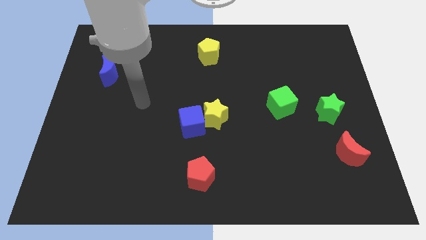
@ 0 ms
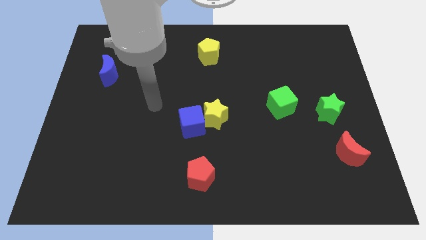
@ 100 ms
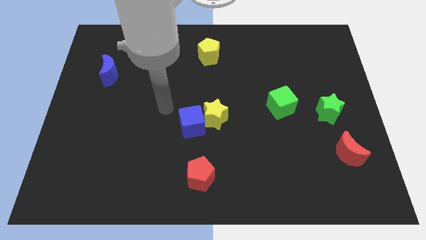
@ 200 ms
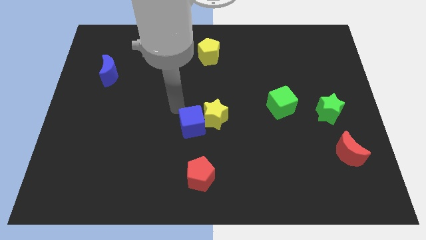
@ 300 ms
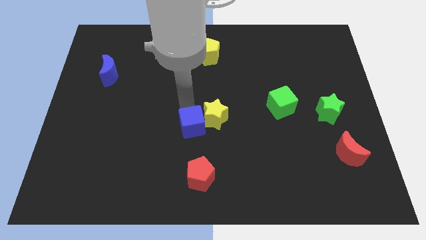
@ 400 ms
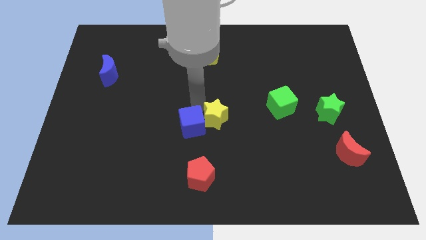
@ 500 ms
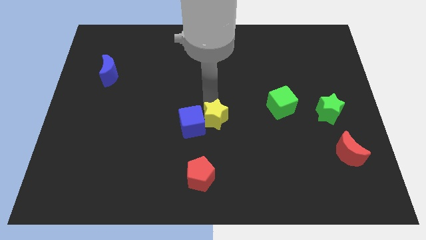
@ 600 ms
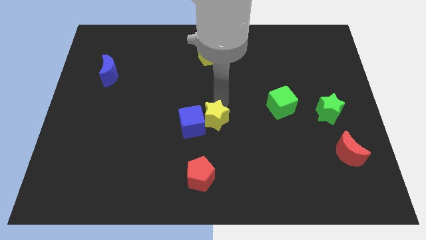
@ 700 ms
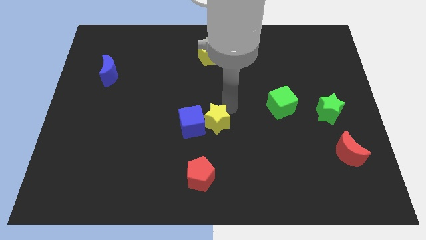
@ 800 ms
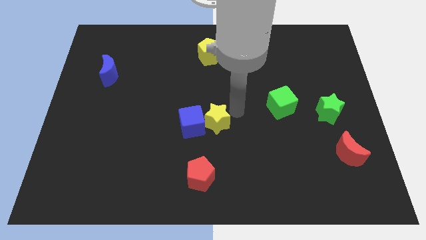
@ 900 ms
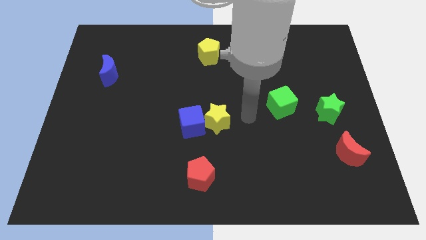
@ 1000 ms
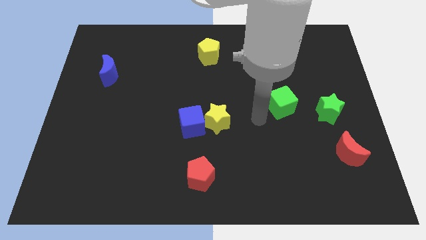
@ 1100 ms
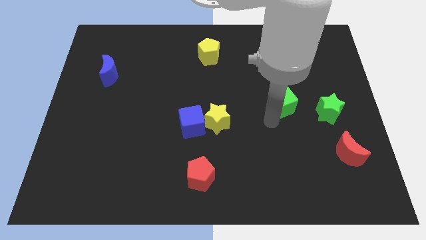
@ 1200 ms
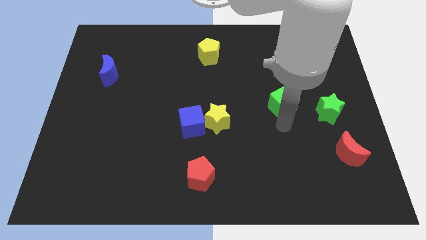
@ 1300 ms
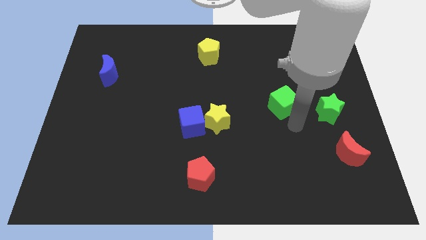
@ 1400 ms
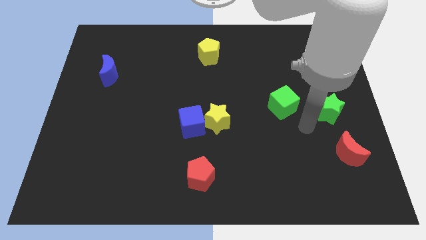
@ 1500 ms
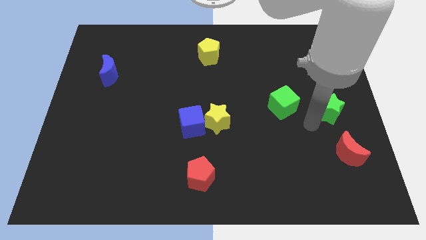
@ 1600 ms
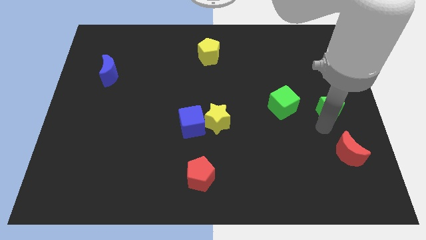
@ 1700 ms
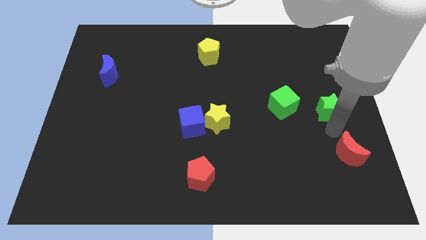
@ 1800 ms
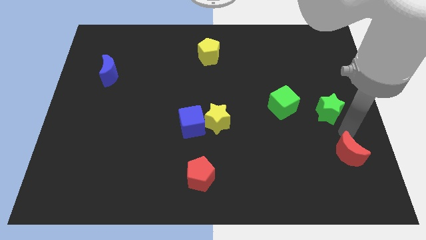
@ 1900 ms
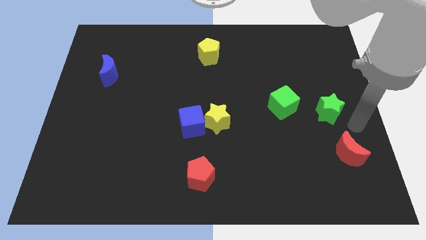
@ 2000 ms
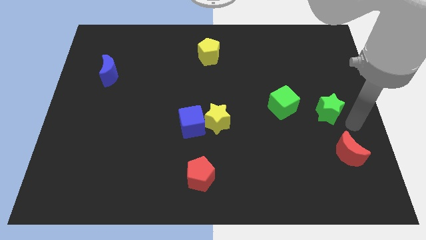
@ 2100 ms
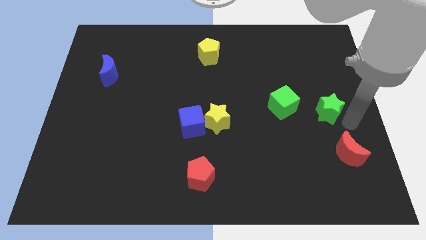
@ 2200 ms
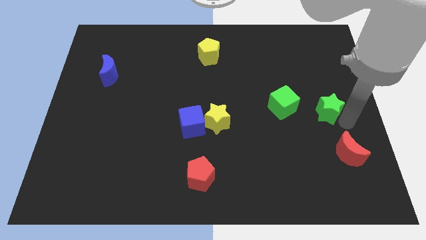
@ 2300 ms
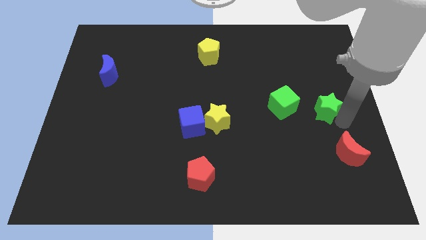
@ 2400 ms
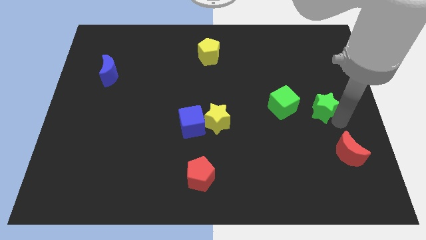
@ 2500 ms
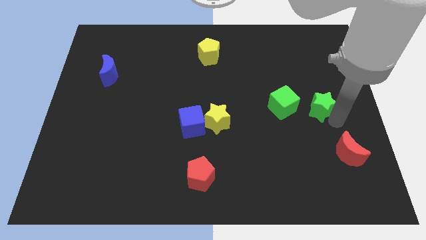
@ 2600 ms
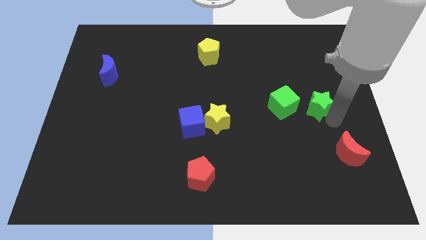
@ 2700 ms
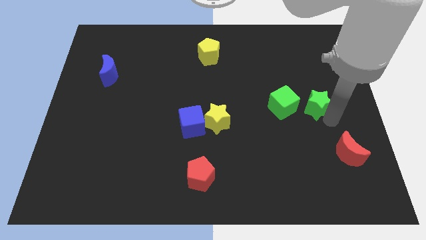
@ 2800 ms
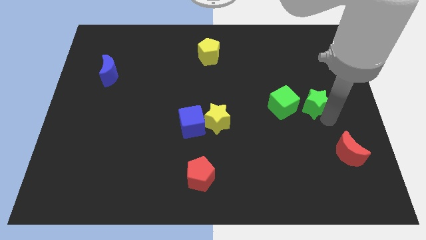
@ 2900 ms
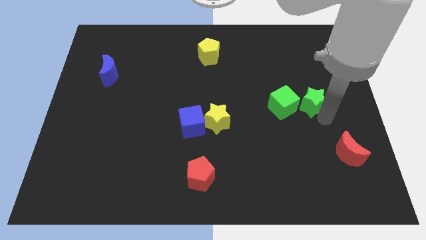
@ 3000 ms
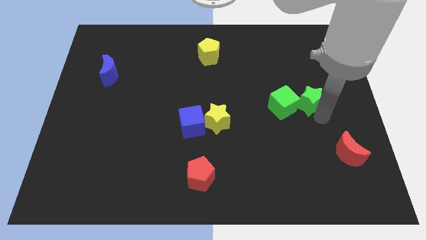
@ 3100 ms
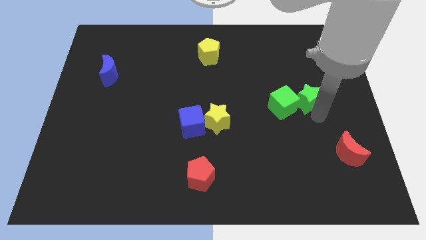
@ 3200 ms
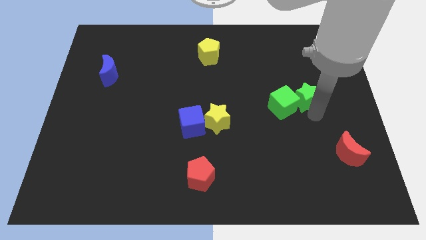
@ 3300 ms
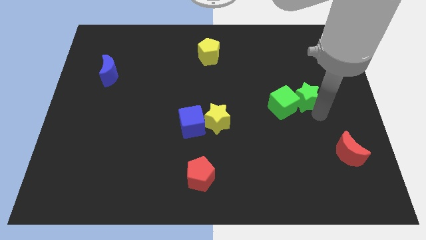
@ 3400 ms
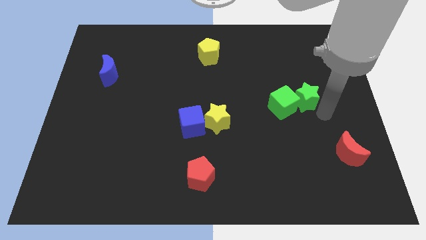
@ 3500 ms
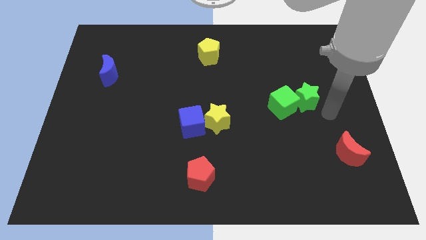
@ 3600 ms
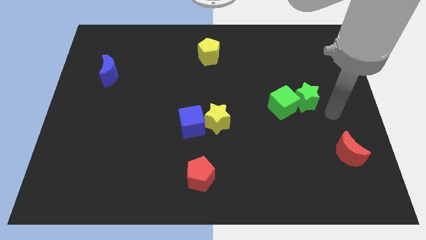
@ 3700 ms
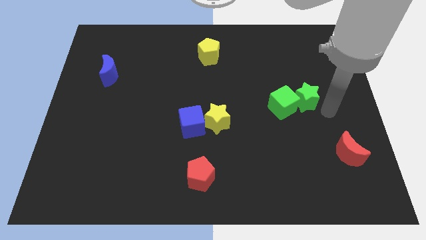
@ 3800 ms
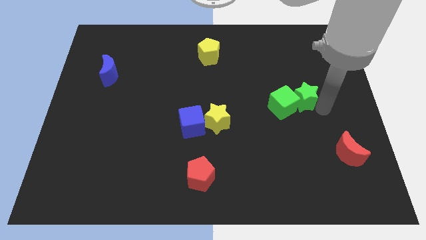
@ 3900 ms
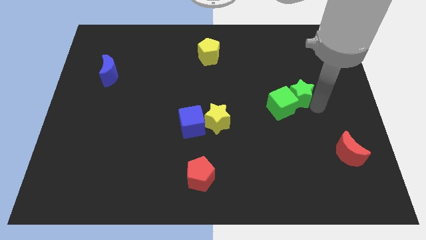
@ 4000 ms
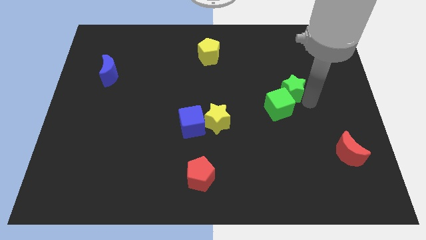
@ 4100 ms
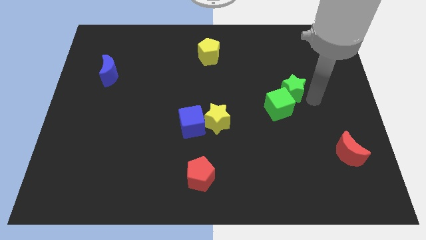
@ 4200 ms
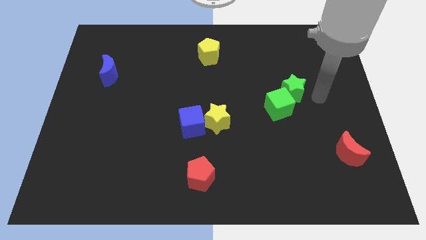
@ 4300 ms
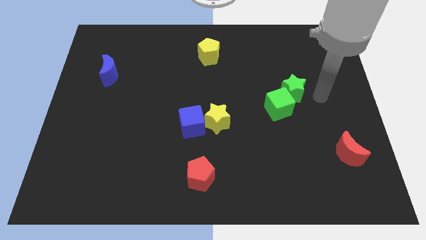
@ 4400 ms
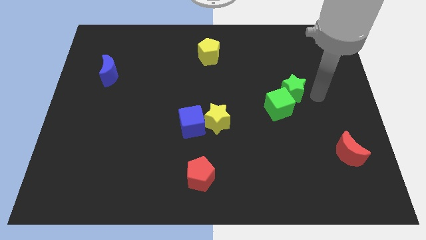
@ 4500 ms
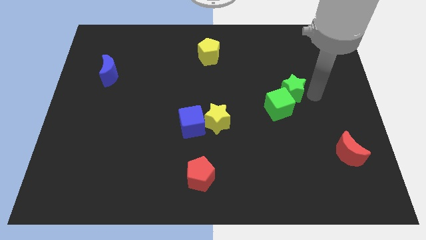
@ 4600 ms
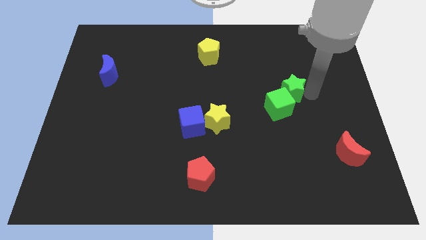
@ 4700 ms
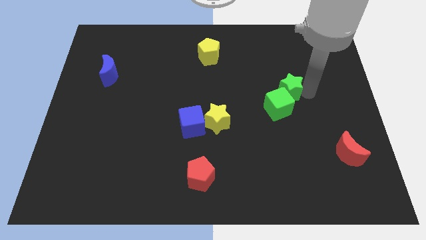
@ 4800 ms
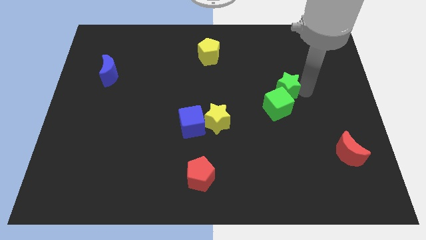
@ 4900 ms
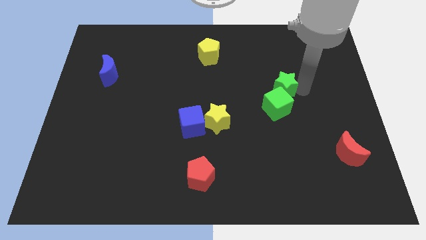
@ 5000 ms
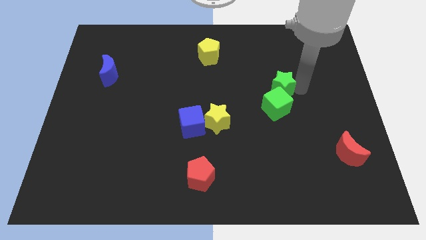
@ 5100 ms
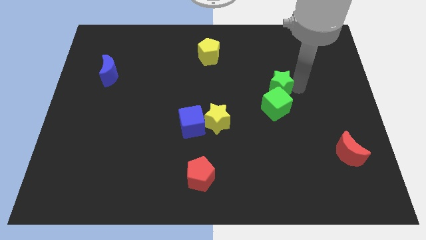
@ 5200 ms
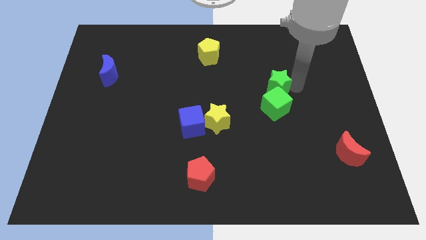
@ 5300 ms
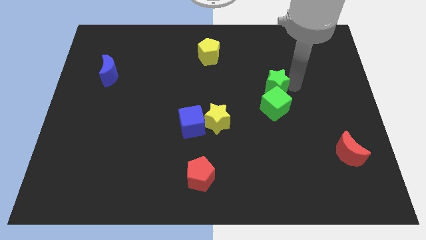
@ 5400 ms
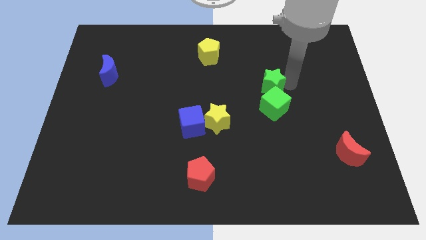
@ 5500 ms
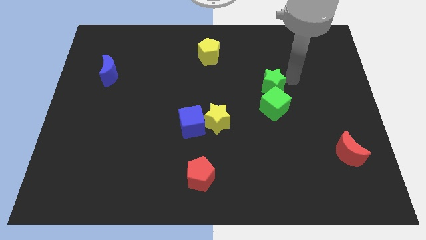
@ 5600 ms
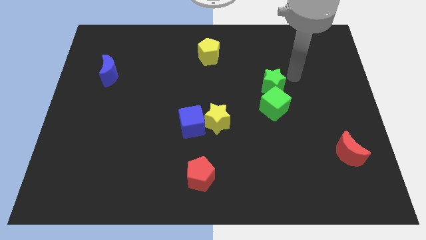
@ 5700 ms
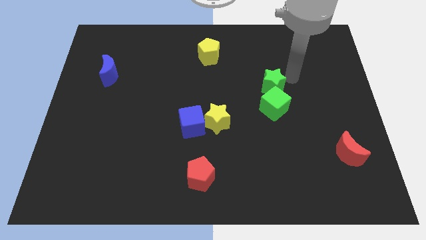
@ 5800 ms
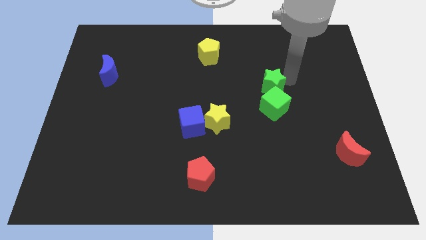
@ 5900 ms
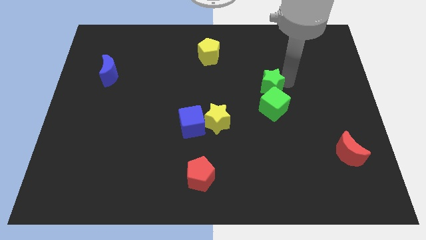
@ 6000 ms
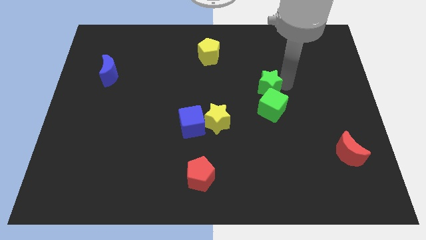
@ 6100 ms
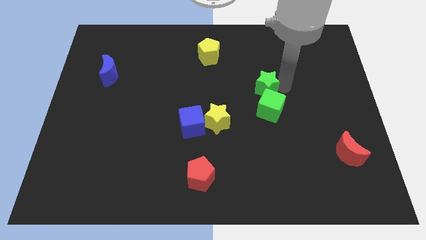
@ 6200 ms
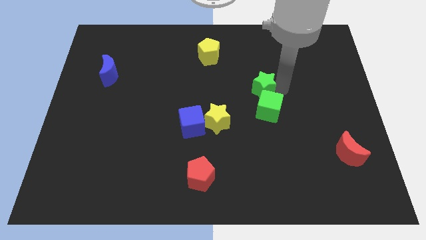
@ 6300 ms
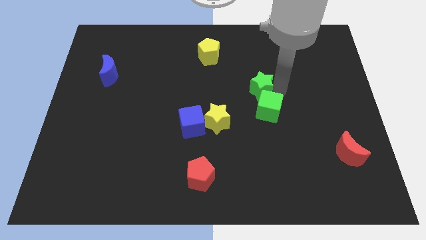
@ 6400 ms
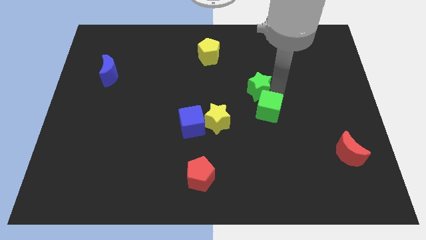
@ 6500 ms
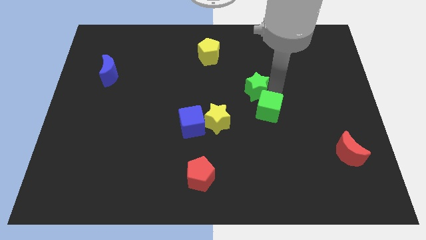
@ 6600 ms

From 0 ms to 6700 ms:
slide the green star to the top right of the yellow star

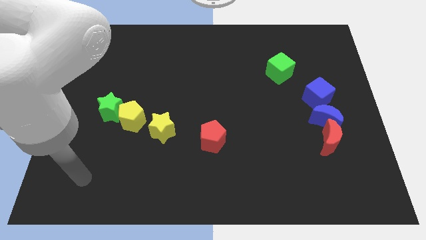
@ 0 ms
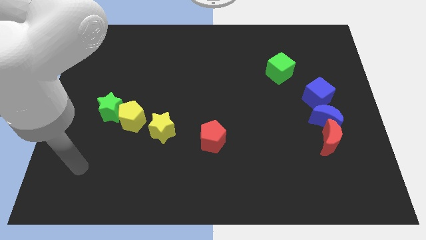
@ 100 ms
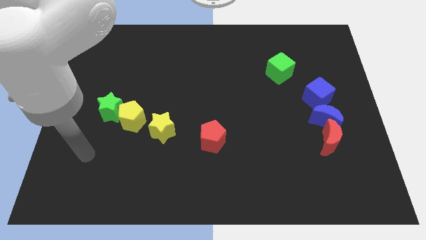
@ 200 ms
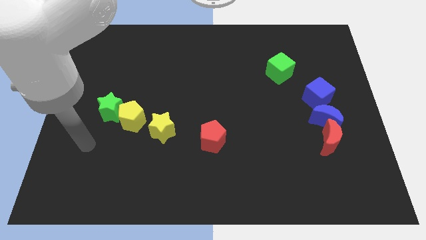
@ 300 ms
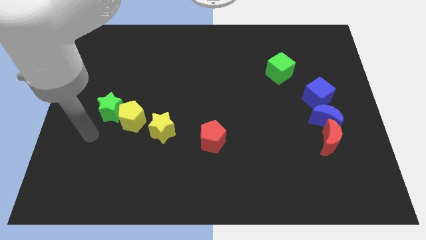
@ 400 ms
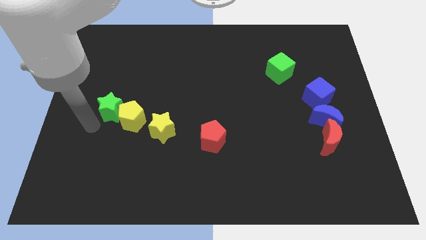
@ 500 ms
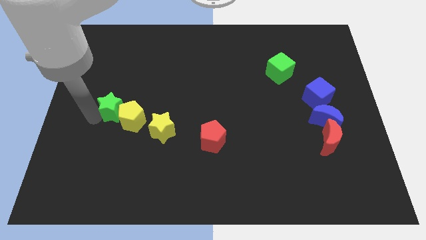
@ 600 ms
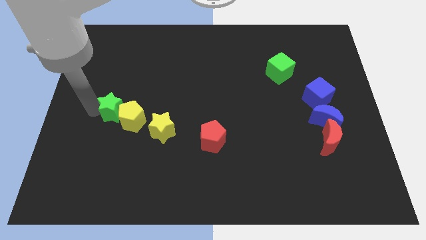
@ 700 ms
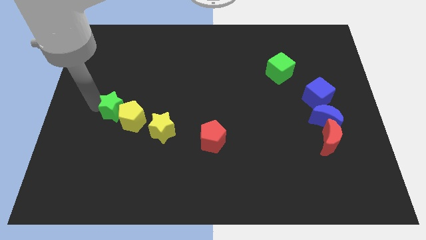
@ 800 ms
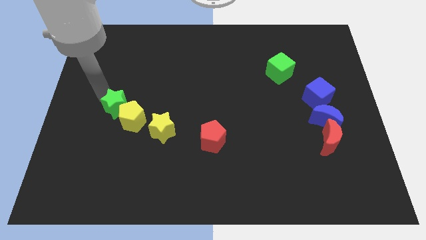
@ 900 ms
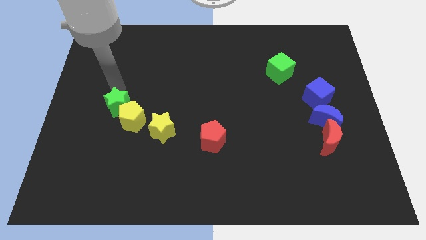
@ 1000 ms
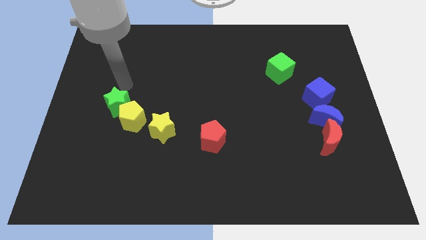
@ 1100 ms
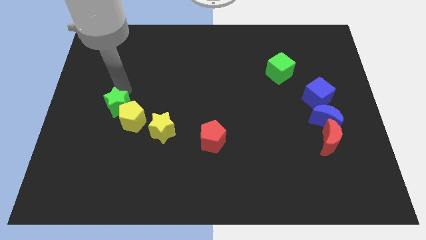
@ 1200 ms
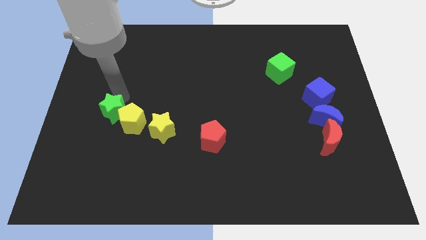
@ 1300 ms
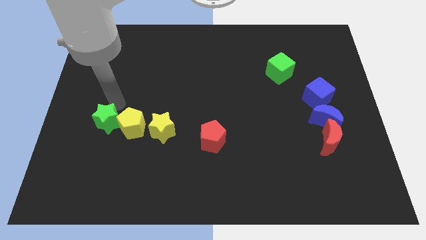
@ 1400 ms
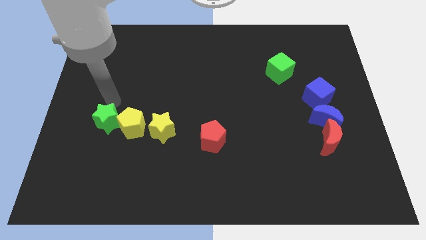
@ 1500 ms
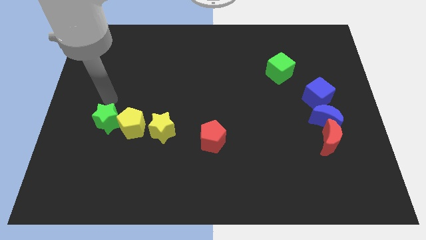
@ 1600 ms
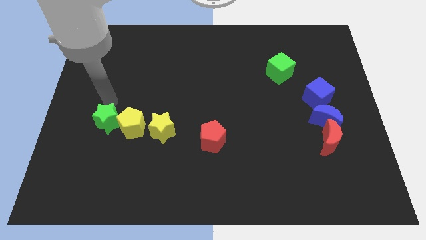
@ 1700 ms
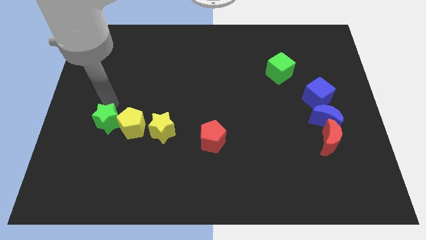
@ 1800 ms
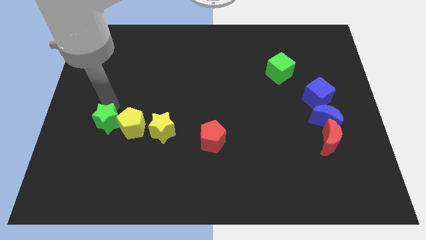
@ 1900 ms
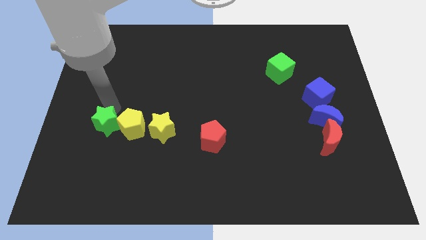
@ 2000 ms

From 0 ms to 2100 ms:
move the green star diagonally down and to the left of the yellow pentagon
